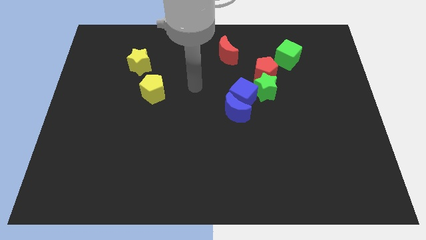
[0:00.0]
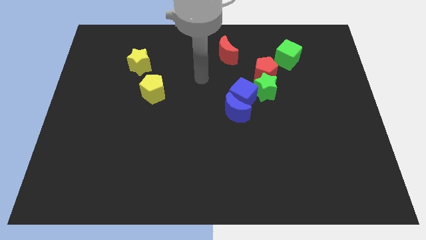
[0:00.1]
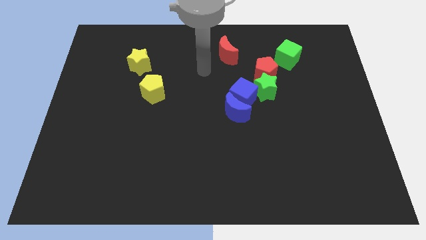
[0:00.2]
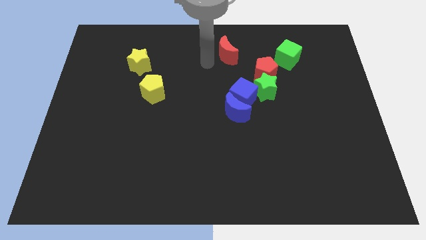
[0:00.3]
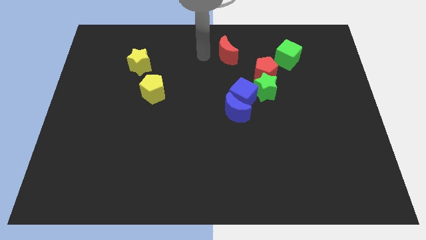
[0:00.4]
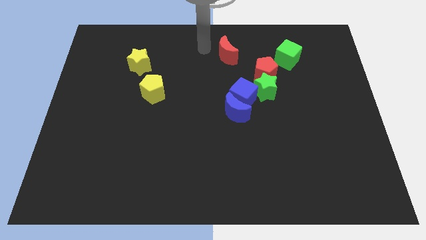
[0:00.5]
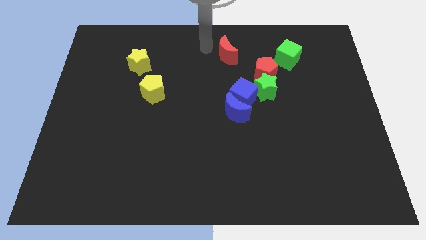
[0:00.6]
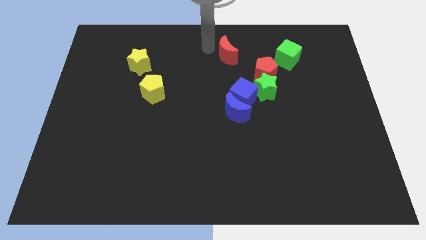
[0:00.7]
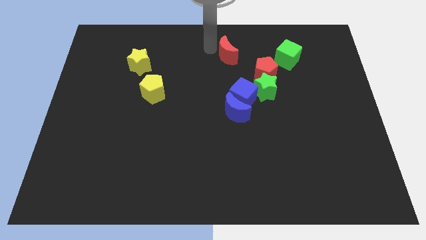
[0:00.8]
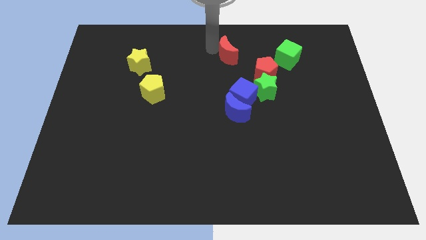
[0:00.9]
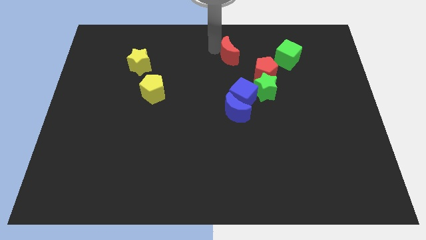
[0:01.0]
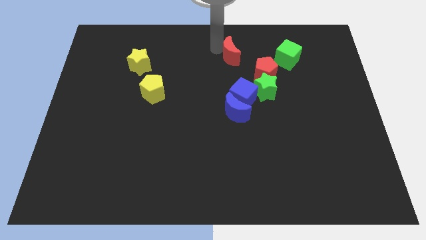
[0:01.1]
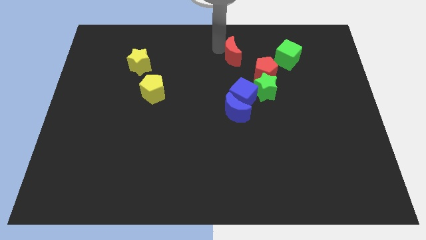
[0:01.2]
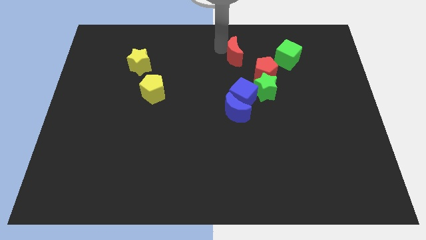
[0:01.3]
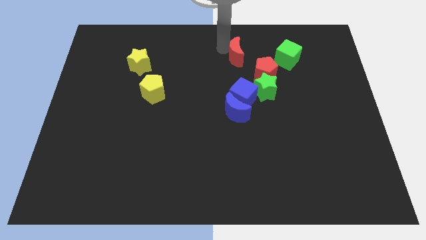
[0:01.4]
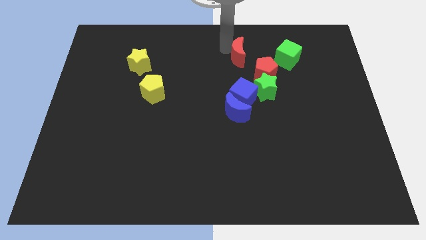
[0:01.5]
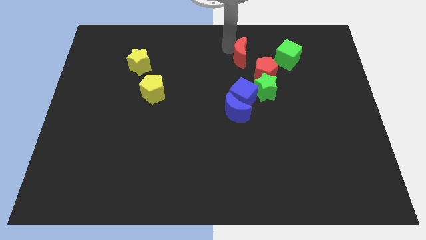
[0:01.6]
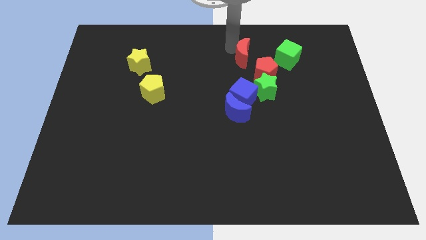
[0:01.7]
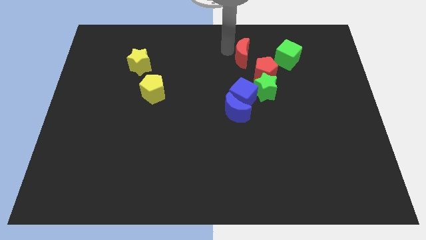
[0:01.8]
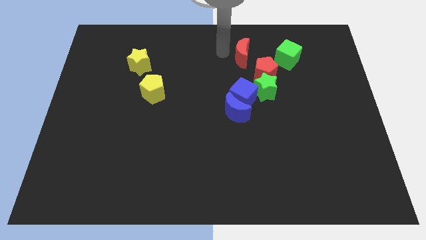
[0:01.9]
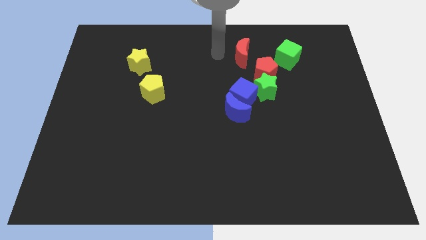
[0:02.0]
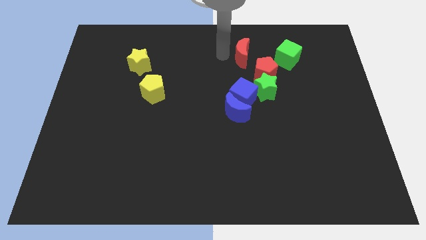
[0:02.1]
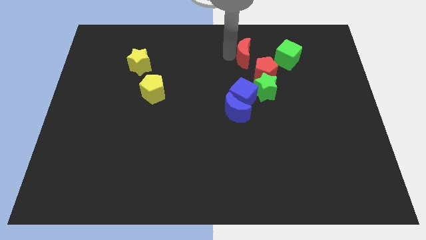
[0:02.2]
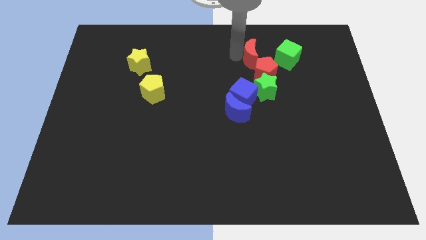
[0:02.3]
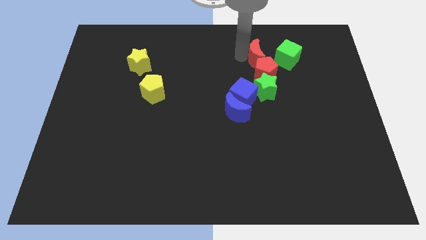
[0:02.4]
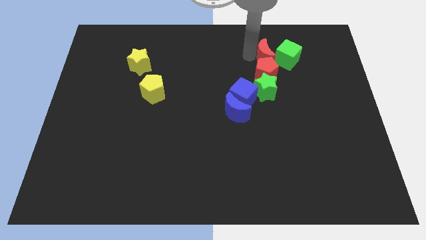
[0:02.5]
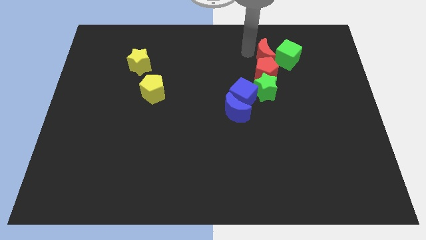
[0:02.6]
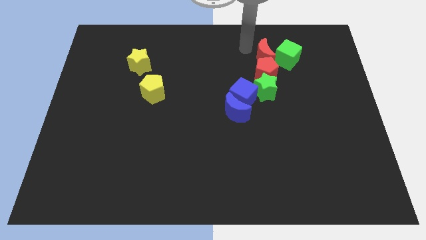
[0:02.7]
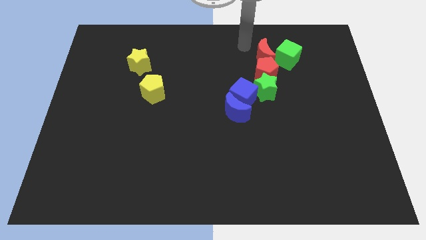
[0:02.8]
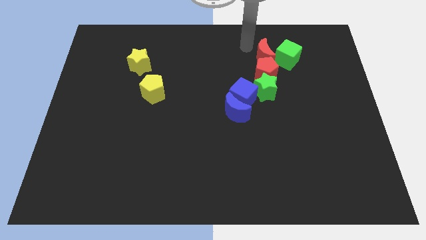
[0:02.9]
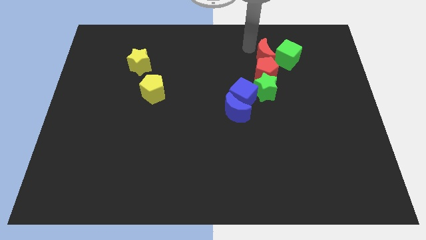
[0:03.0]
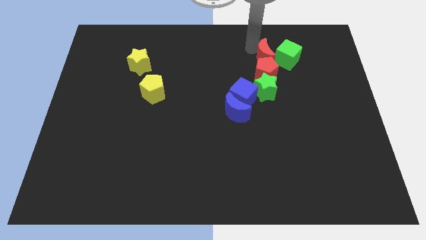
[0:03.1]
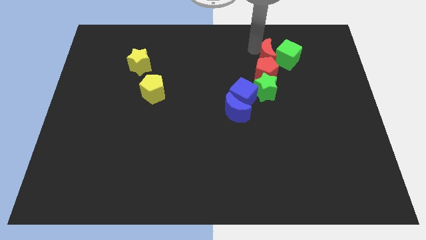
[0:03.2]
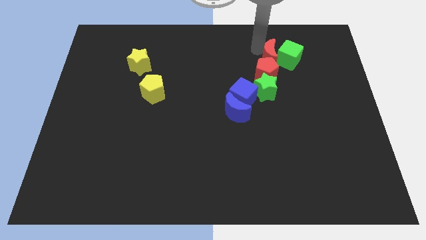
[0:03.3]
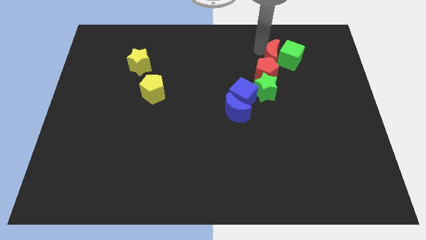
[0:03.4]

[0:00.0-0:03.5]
slightly slide the red moon diagonally down and to the right

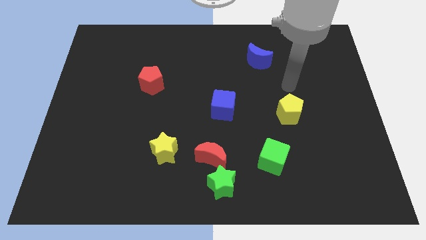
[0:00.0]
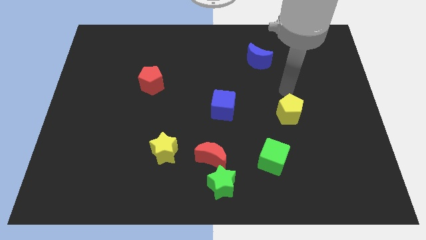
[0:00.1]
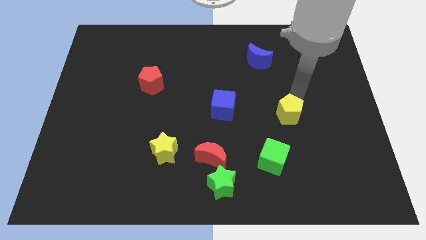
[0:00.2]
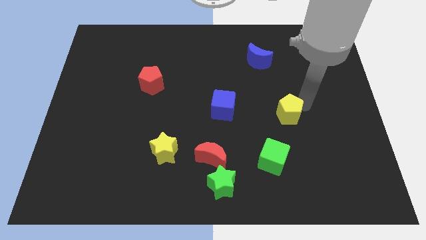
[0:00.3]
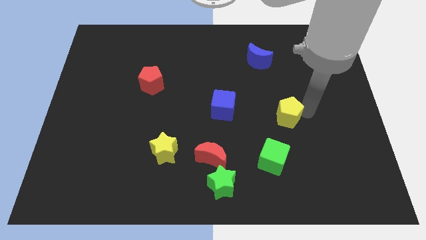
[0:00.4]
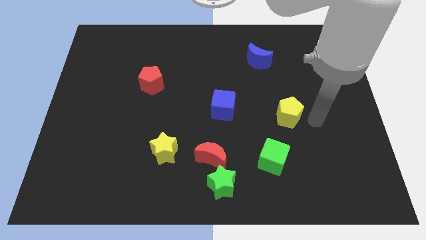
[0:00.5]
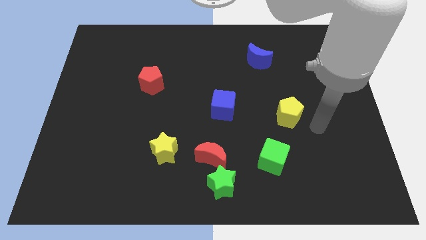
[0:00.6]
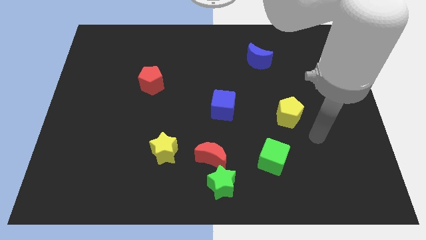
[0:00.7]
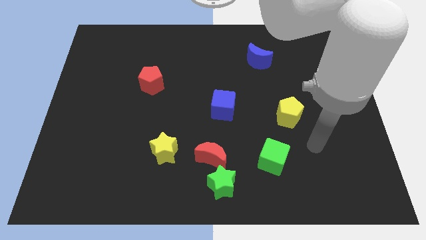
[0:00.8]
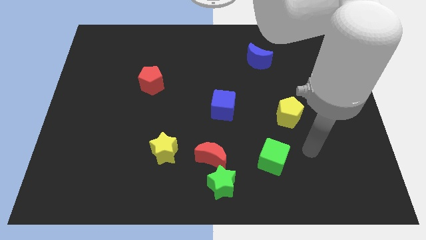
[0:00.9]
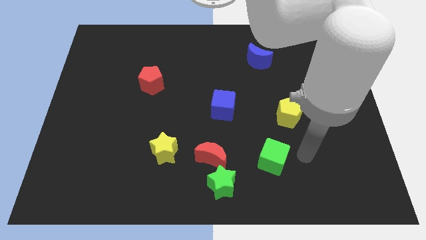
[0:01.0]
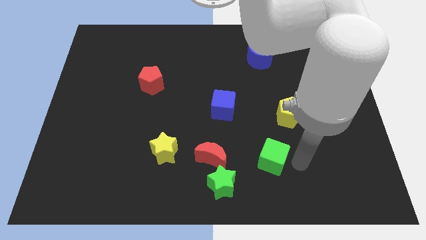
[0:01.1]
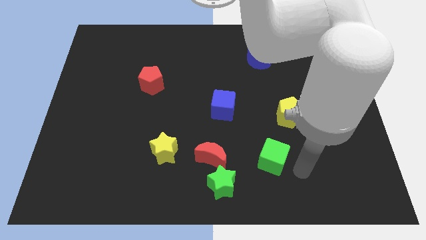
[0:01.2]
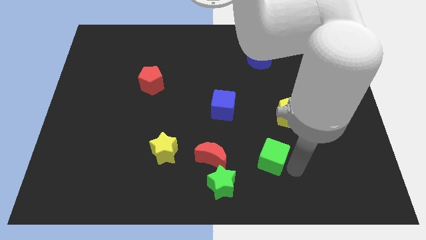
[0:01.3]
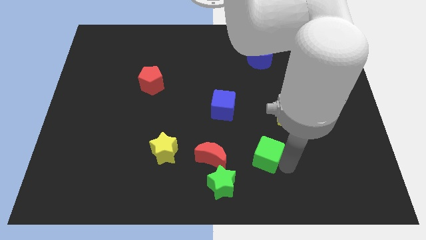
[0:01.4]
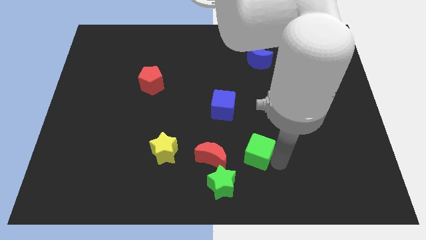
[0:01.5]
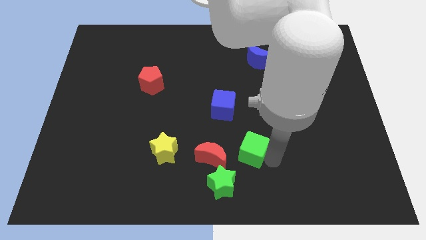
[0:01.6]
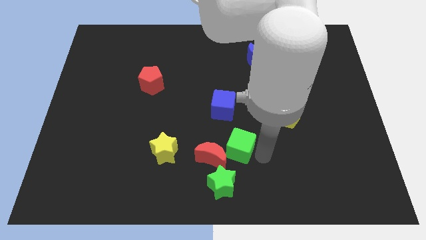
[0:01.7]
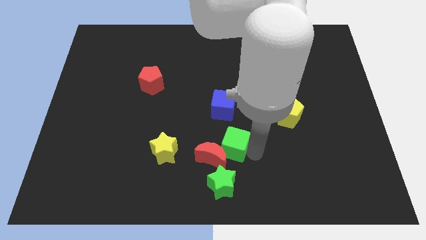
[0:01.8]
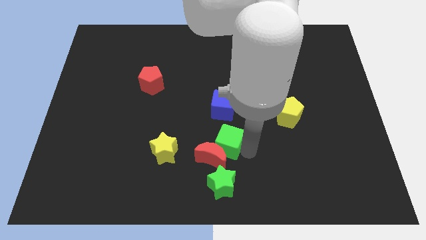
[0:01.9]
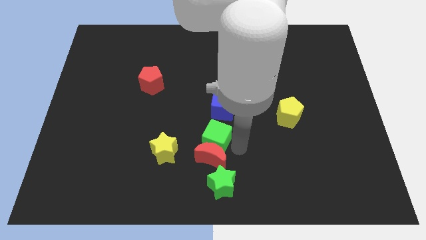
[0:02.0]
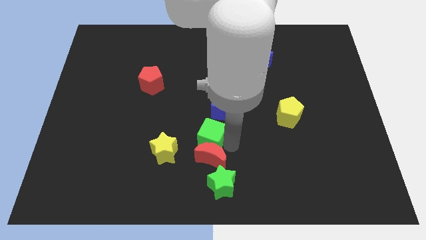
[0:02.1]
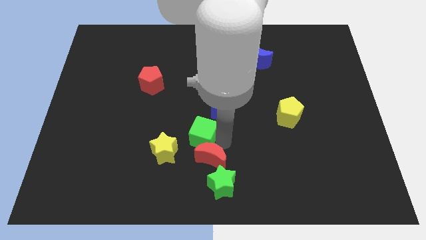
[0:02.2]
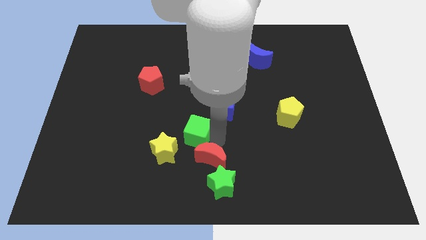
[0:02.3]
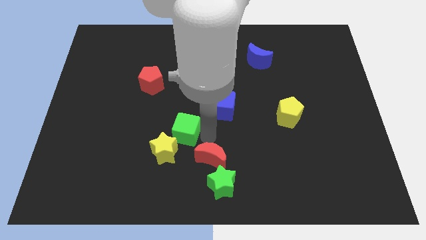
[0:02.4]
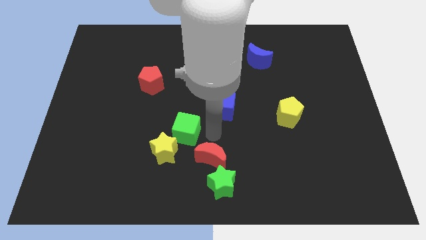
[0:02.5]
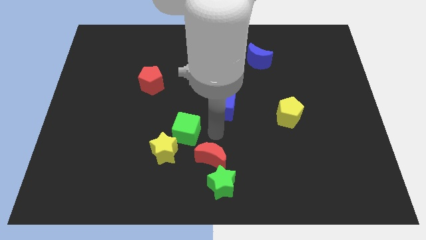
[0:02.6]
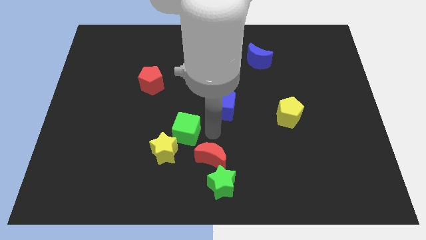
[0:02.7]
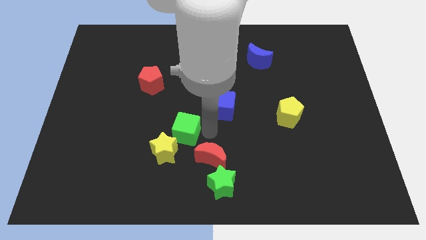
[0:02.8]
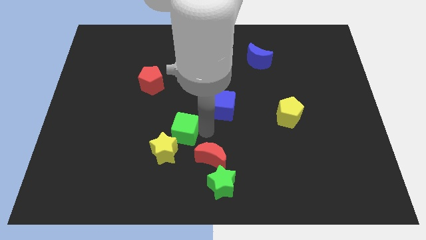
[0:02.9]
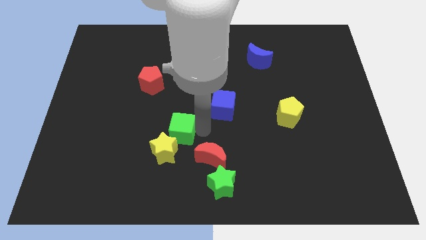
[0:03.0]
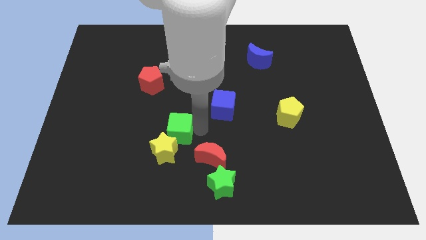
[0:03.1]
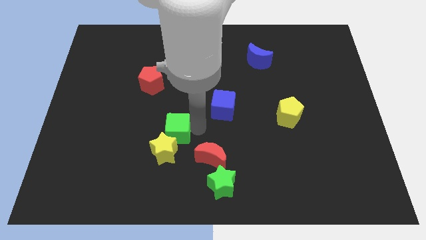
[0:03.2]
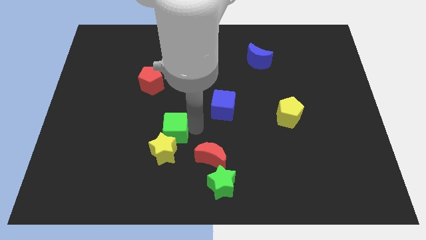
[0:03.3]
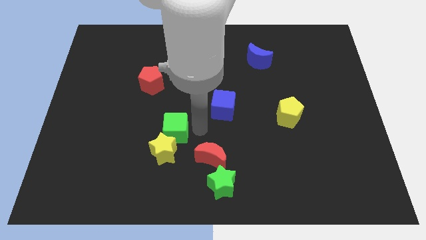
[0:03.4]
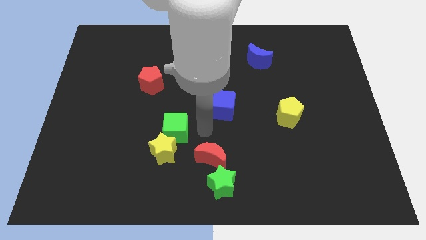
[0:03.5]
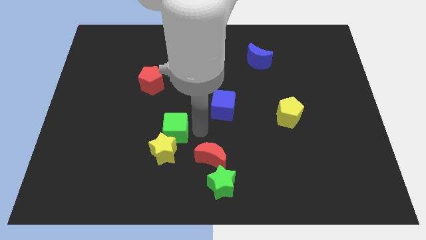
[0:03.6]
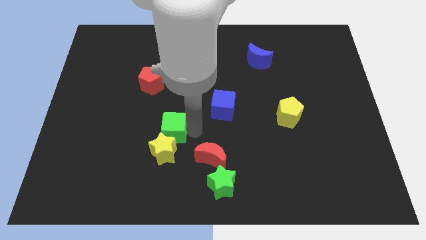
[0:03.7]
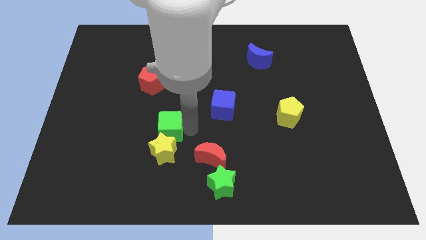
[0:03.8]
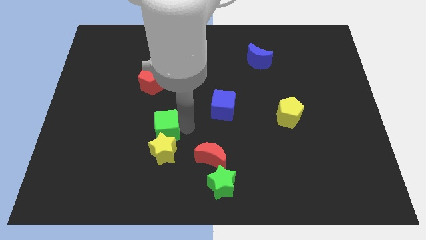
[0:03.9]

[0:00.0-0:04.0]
move the green cube left

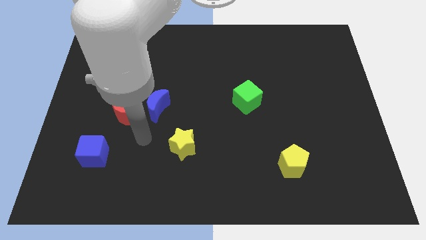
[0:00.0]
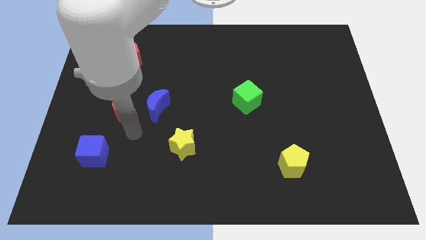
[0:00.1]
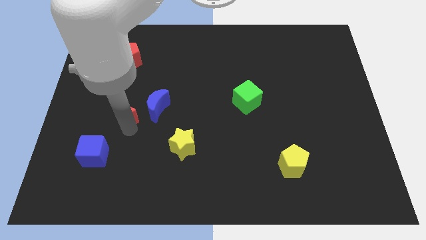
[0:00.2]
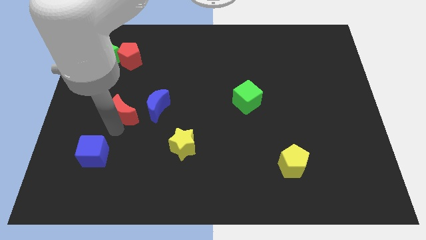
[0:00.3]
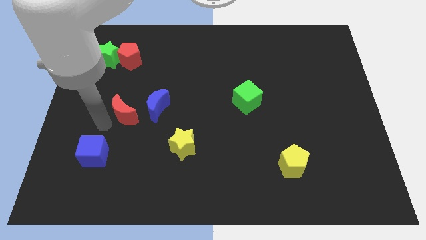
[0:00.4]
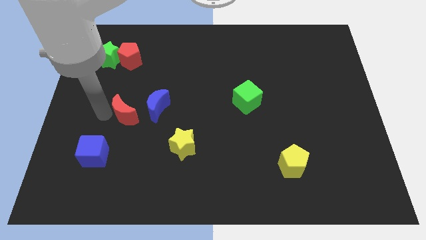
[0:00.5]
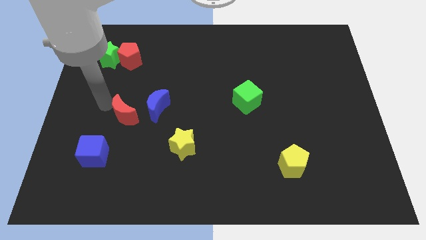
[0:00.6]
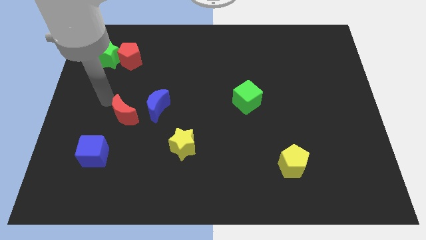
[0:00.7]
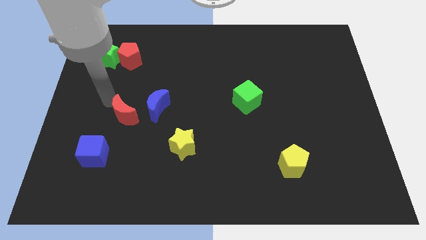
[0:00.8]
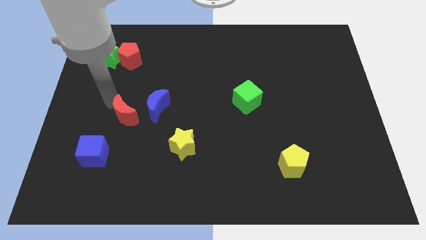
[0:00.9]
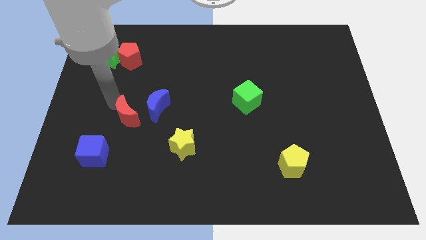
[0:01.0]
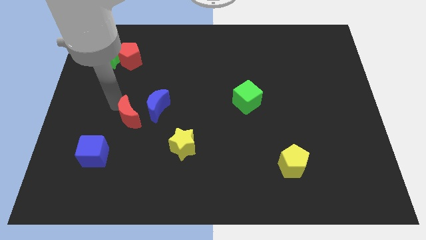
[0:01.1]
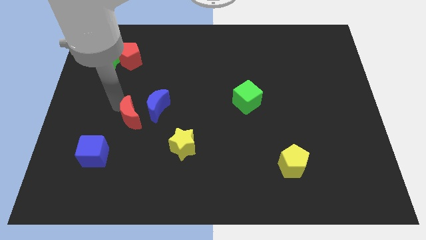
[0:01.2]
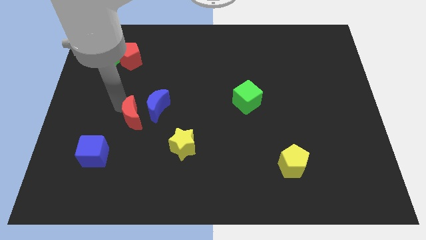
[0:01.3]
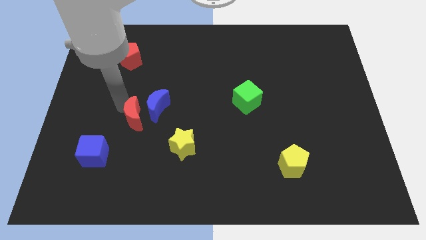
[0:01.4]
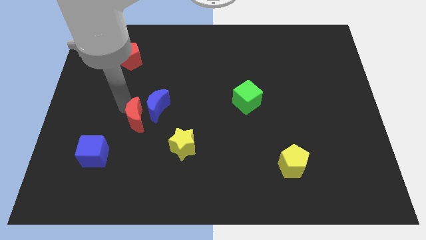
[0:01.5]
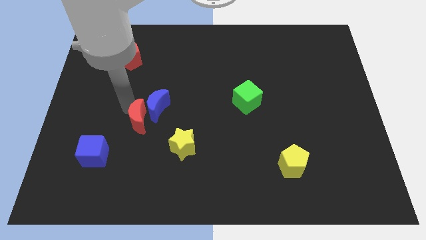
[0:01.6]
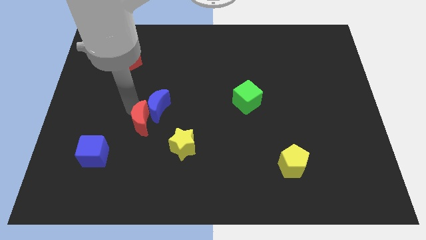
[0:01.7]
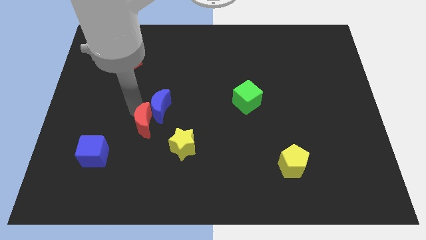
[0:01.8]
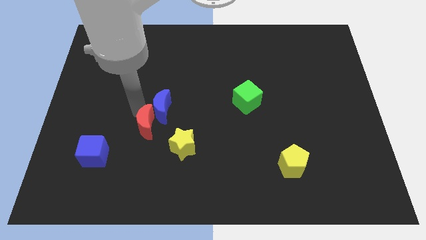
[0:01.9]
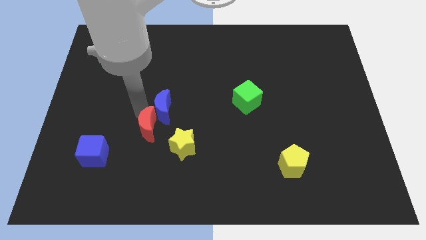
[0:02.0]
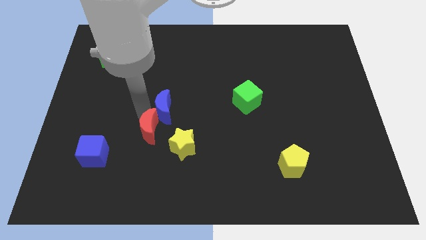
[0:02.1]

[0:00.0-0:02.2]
slide the red moon diagonally down and right somewhat
